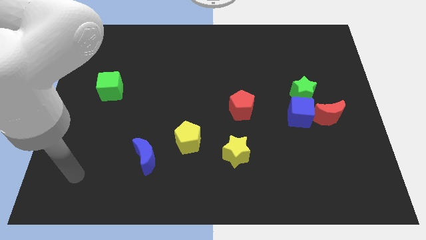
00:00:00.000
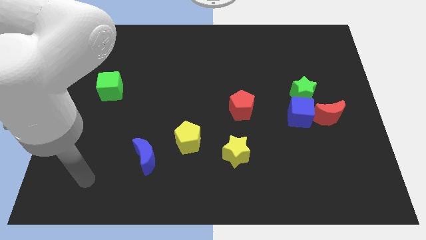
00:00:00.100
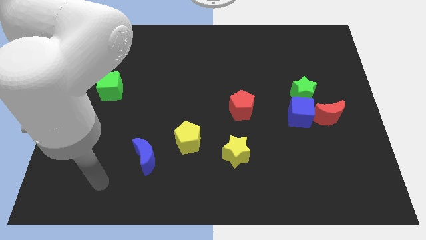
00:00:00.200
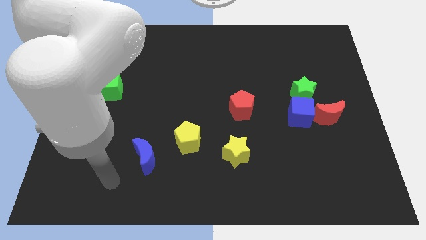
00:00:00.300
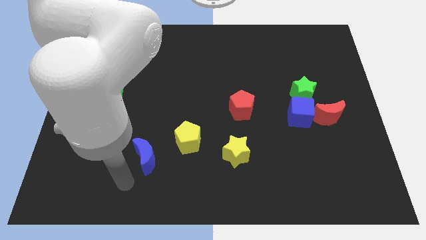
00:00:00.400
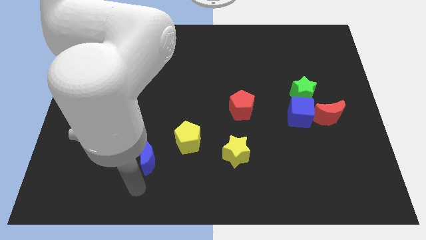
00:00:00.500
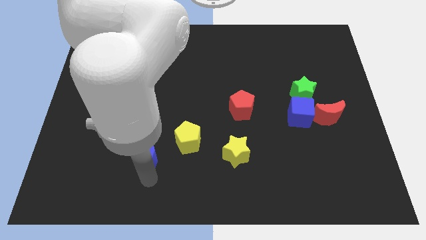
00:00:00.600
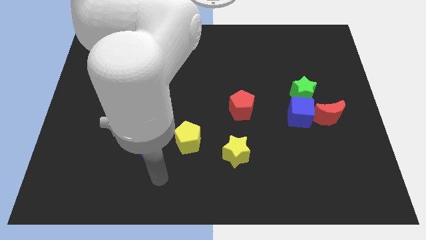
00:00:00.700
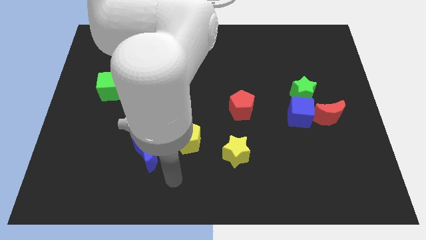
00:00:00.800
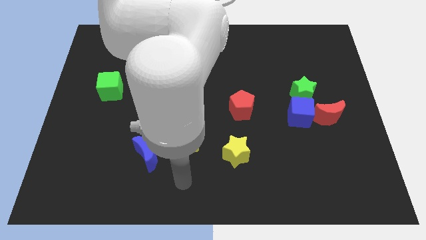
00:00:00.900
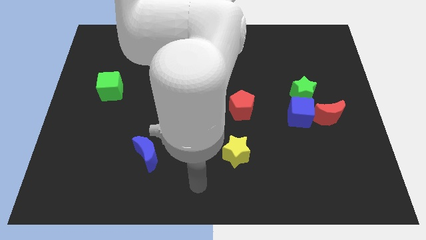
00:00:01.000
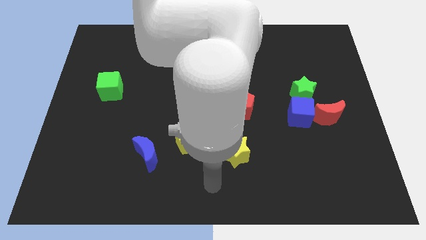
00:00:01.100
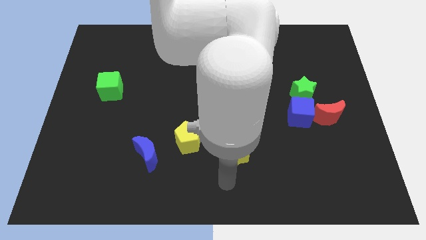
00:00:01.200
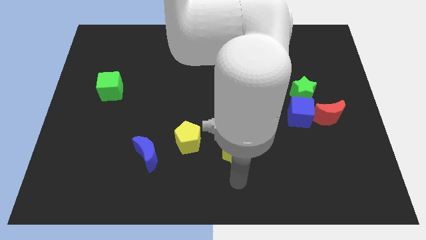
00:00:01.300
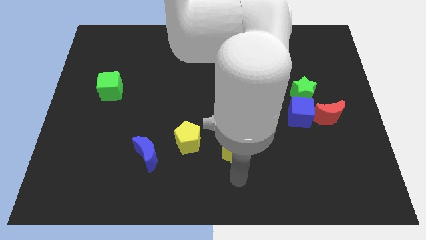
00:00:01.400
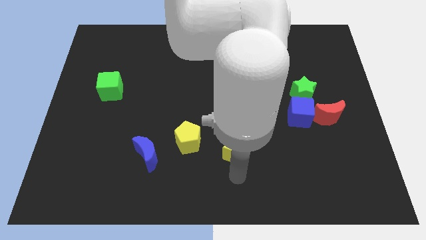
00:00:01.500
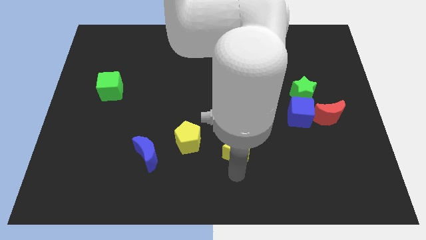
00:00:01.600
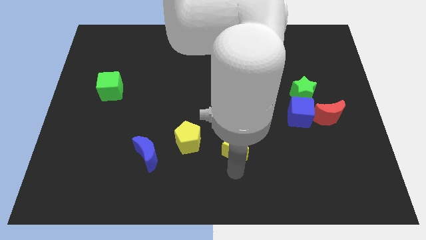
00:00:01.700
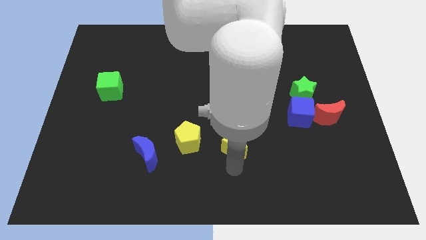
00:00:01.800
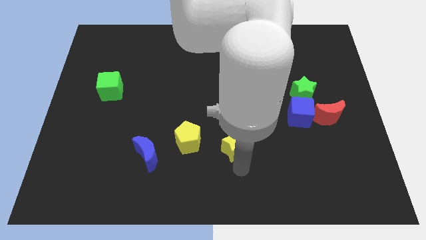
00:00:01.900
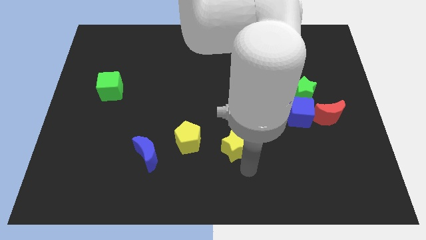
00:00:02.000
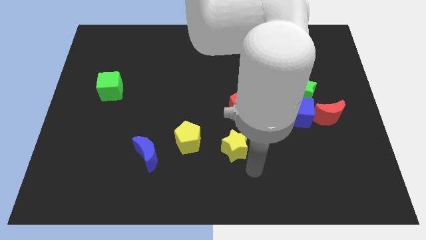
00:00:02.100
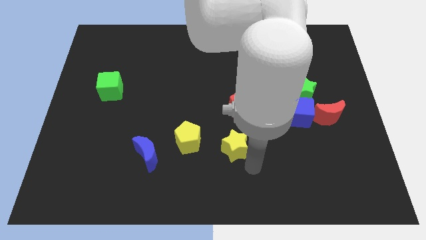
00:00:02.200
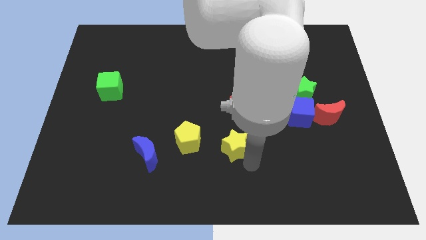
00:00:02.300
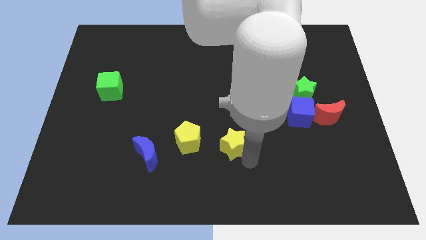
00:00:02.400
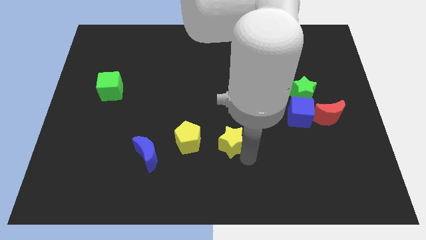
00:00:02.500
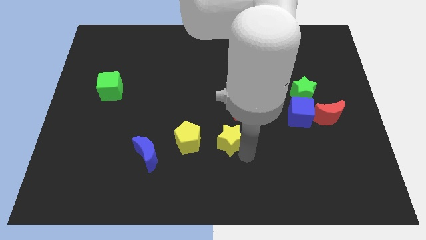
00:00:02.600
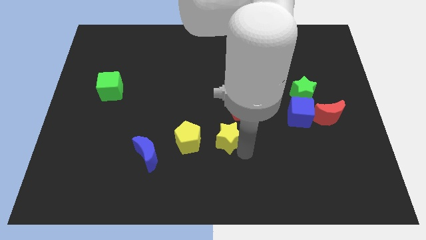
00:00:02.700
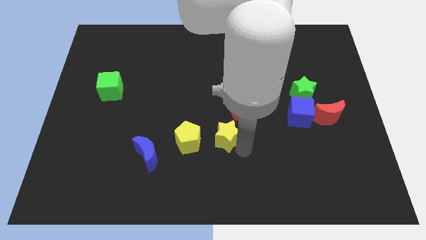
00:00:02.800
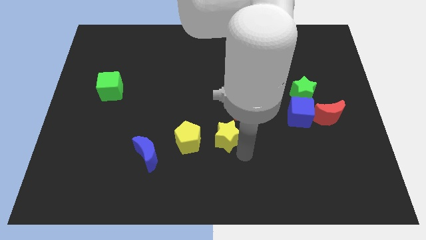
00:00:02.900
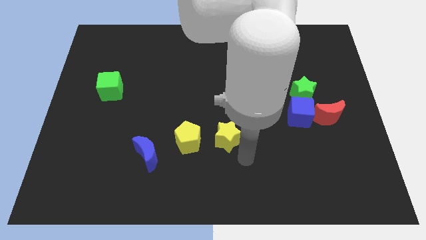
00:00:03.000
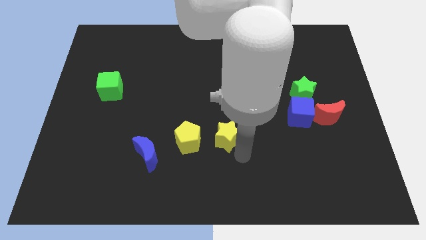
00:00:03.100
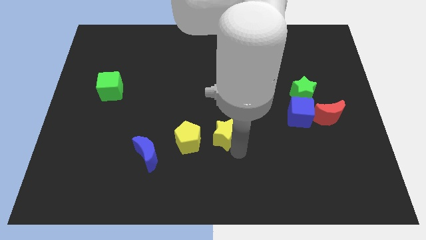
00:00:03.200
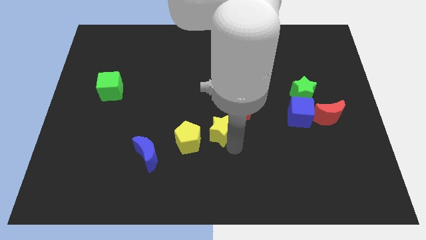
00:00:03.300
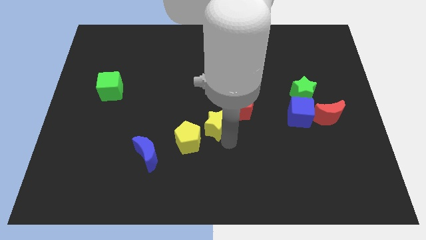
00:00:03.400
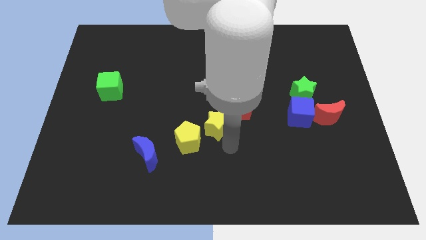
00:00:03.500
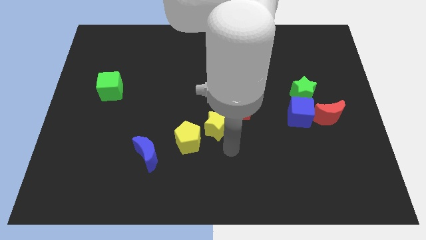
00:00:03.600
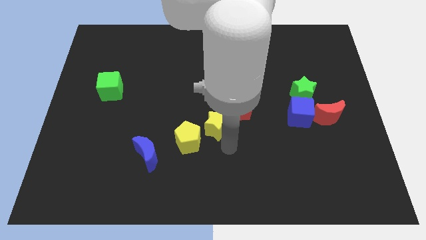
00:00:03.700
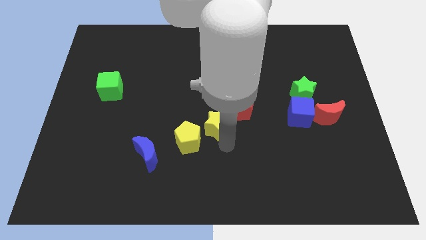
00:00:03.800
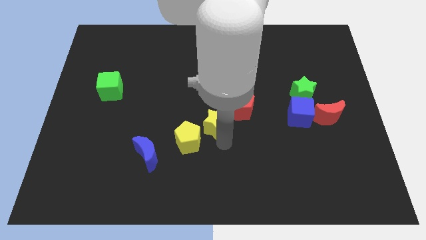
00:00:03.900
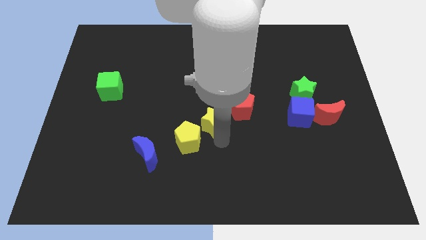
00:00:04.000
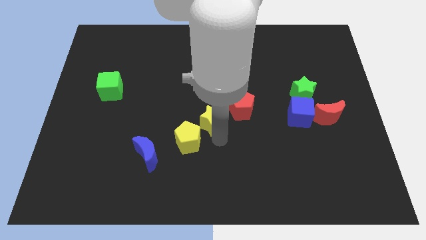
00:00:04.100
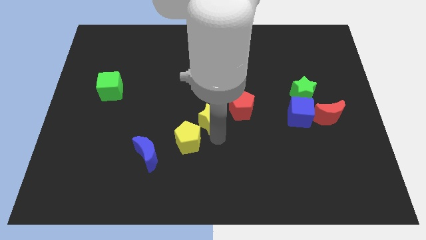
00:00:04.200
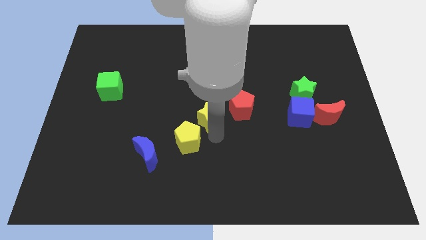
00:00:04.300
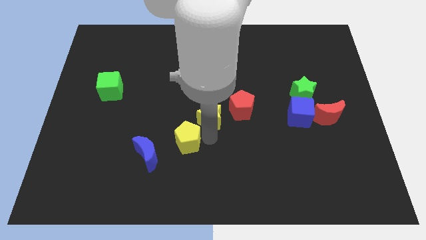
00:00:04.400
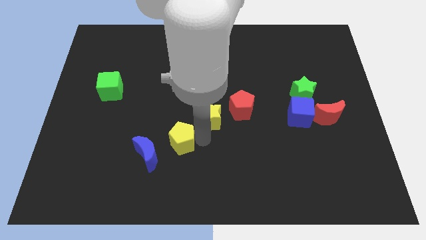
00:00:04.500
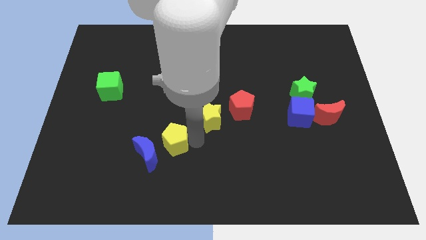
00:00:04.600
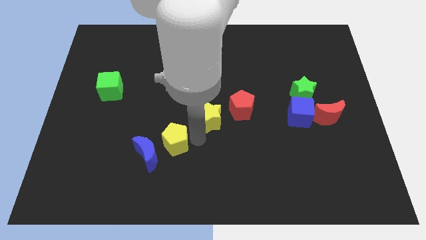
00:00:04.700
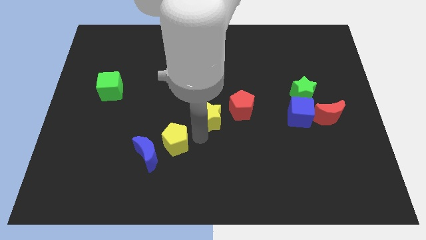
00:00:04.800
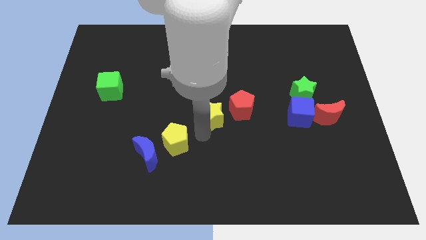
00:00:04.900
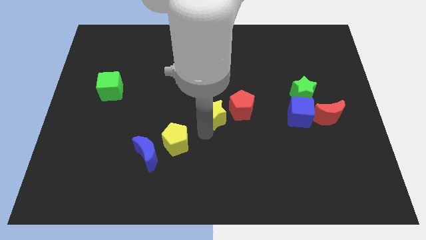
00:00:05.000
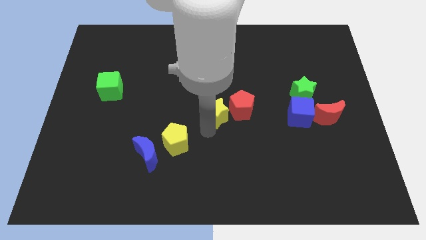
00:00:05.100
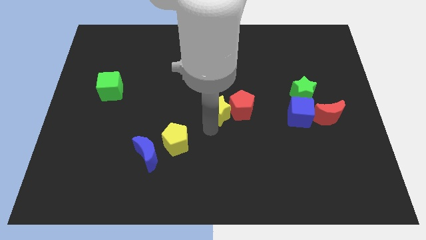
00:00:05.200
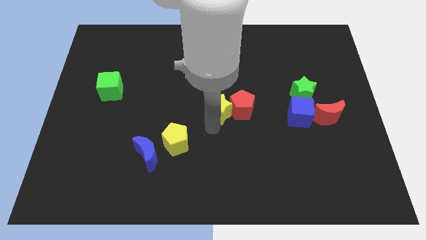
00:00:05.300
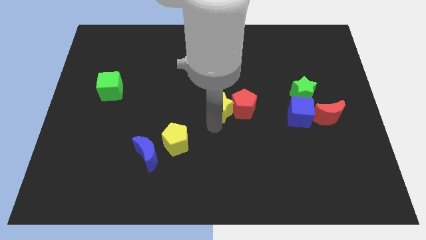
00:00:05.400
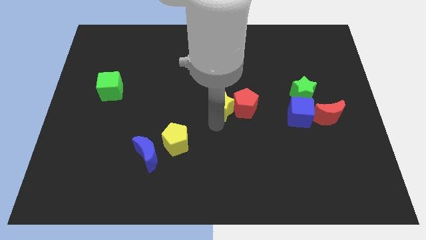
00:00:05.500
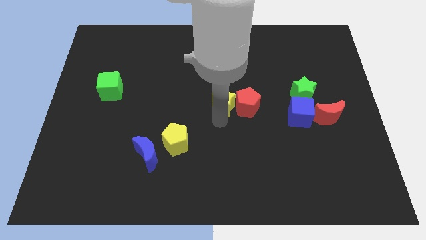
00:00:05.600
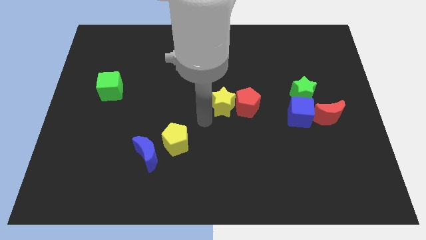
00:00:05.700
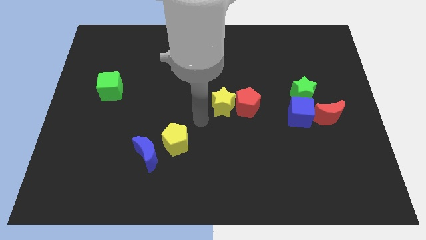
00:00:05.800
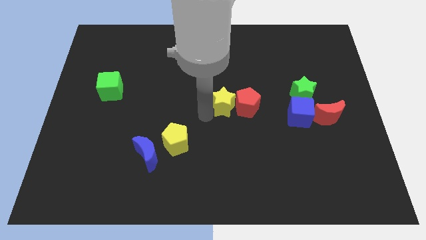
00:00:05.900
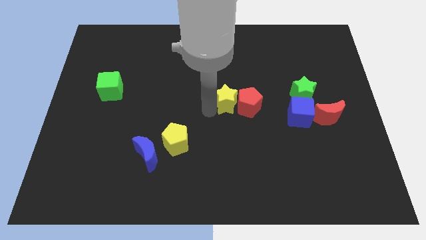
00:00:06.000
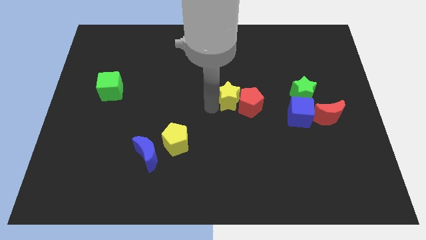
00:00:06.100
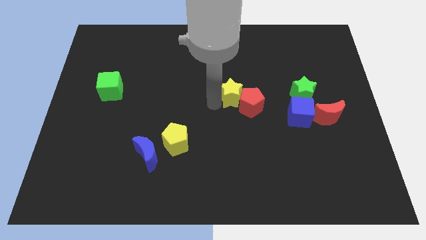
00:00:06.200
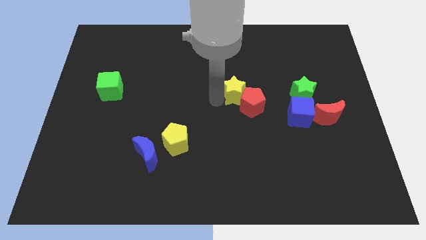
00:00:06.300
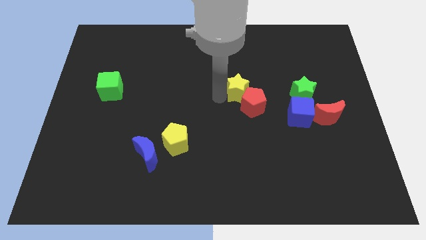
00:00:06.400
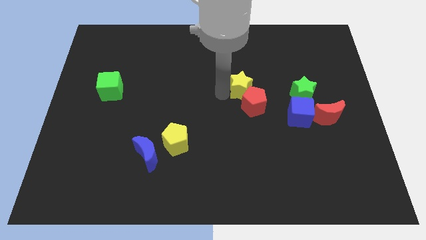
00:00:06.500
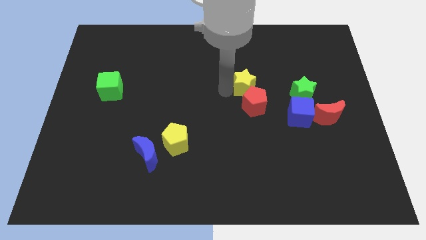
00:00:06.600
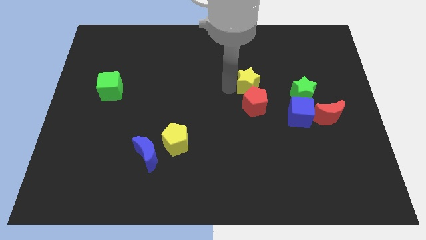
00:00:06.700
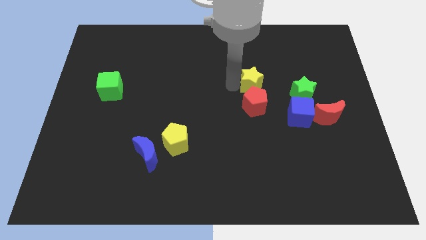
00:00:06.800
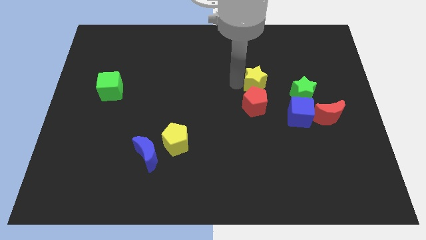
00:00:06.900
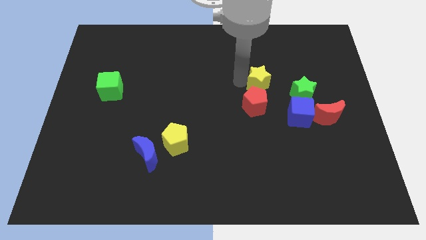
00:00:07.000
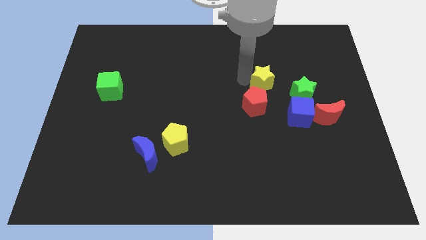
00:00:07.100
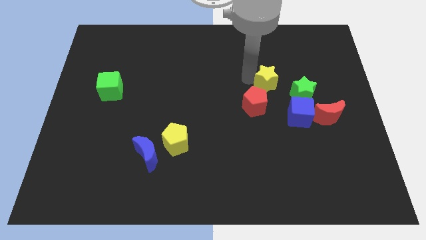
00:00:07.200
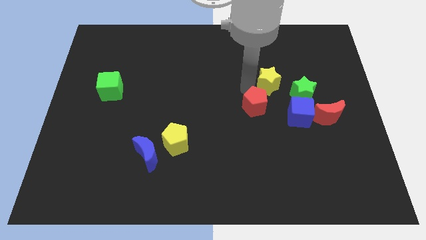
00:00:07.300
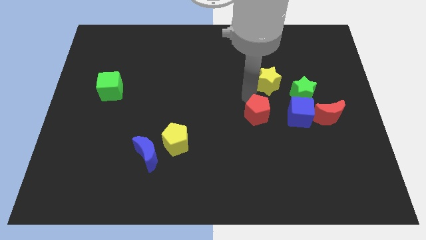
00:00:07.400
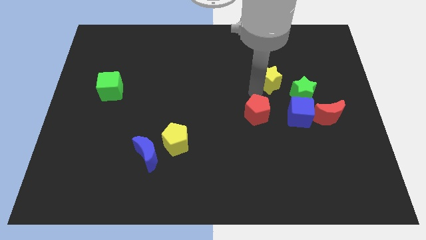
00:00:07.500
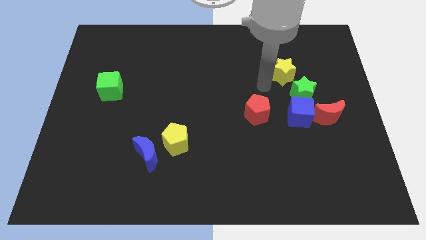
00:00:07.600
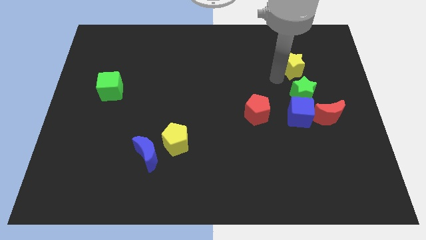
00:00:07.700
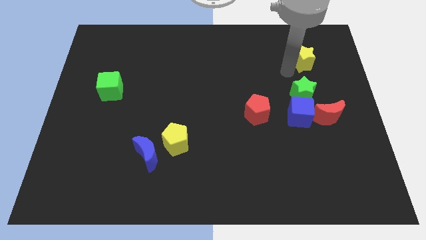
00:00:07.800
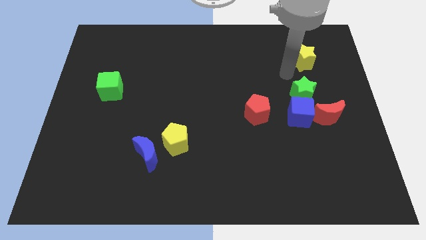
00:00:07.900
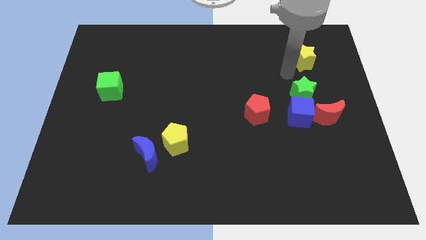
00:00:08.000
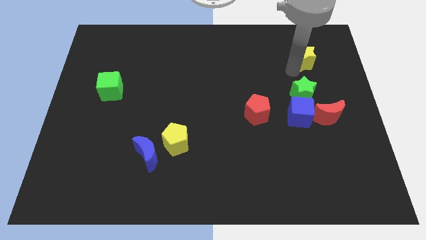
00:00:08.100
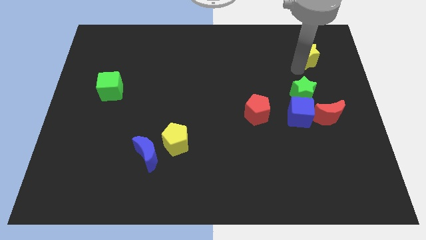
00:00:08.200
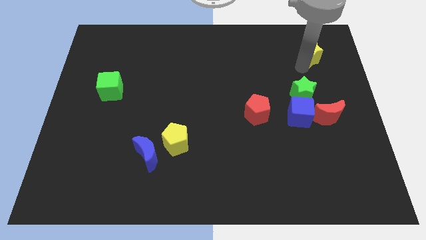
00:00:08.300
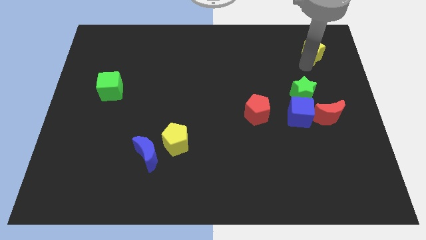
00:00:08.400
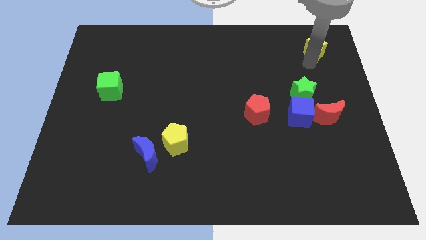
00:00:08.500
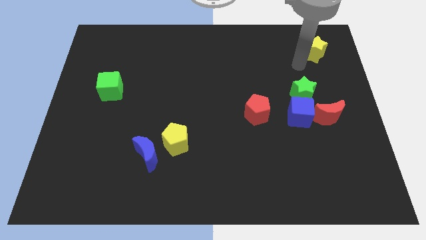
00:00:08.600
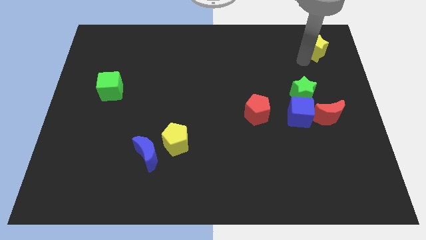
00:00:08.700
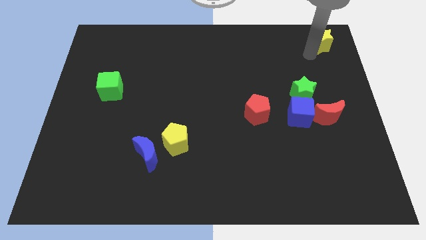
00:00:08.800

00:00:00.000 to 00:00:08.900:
put the yellow star to the upper right corner
